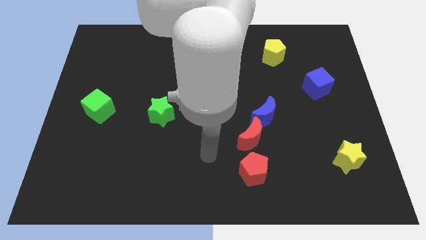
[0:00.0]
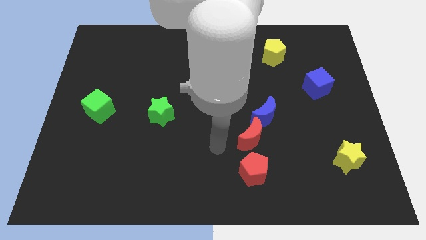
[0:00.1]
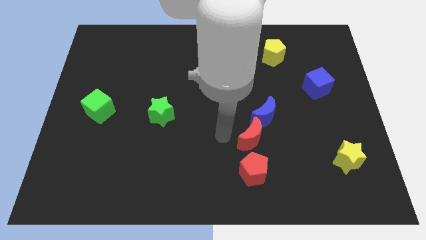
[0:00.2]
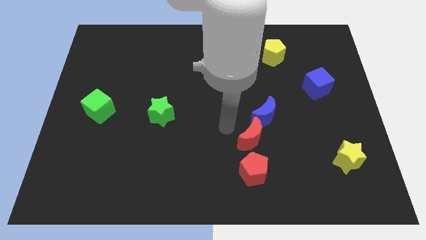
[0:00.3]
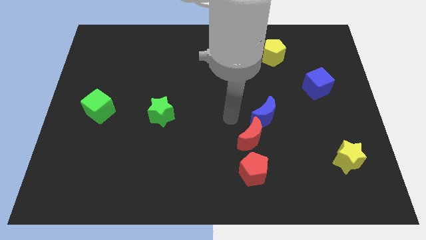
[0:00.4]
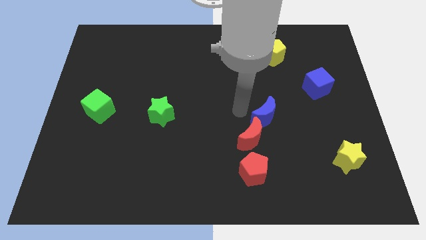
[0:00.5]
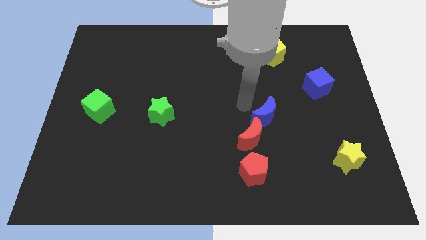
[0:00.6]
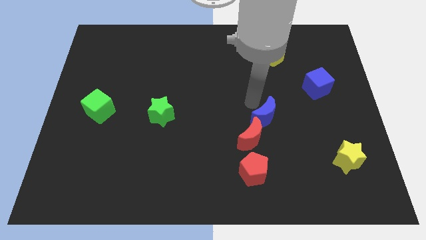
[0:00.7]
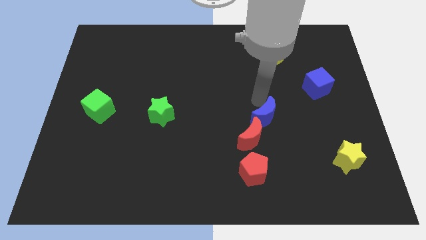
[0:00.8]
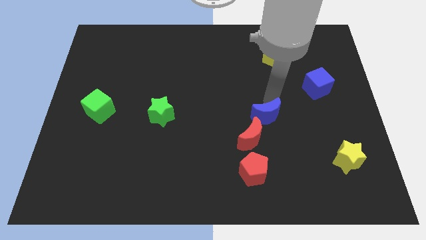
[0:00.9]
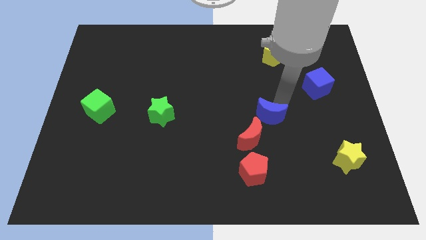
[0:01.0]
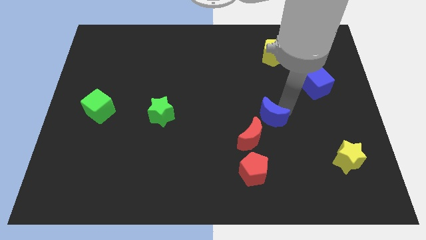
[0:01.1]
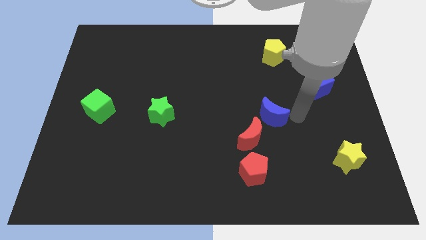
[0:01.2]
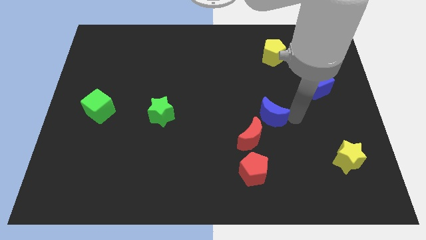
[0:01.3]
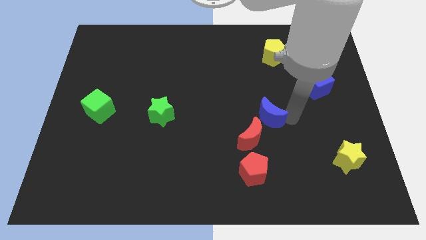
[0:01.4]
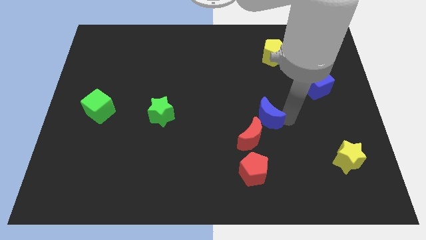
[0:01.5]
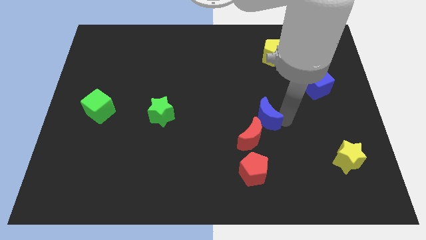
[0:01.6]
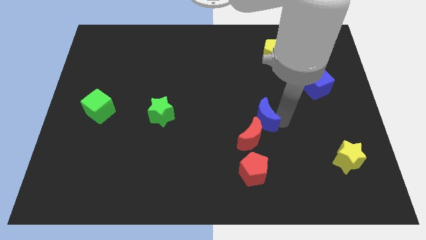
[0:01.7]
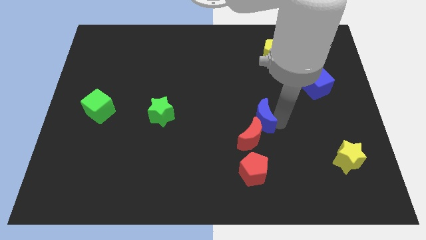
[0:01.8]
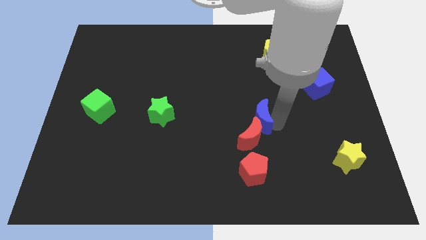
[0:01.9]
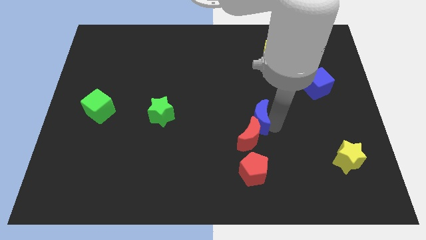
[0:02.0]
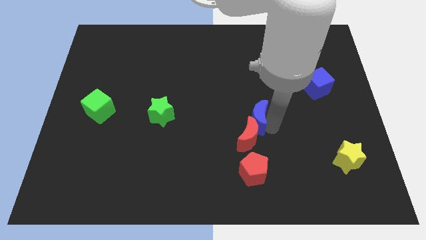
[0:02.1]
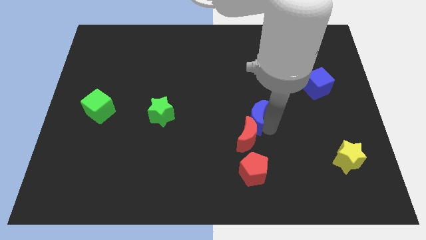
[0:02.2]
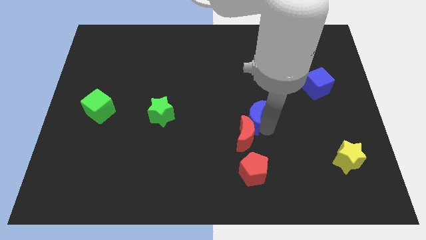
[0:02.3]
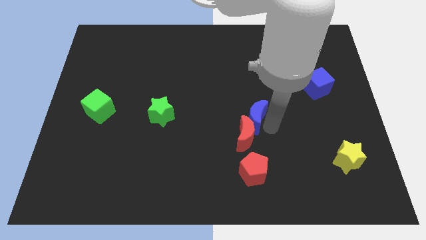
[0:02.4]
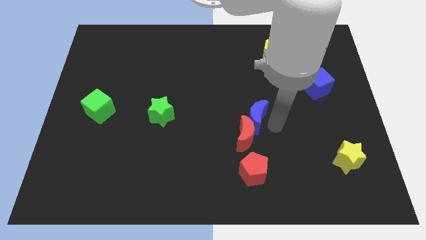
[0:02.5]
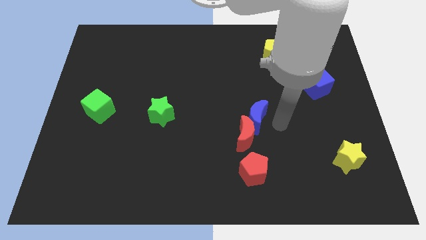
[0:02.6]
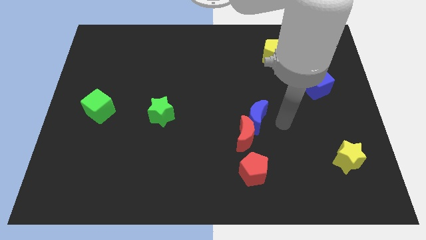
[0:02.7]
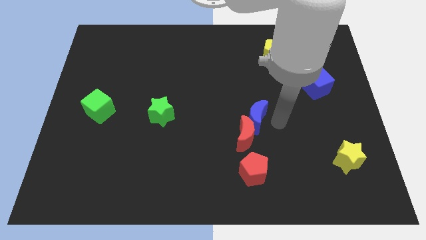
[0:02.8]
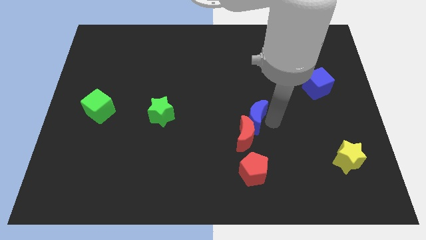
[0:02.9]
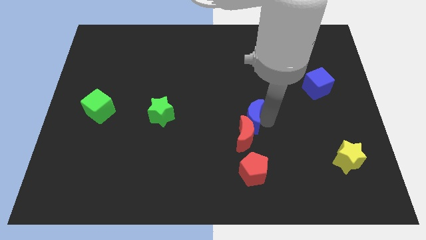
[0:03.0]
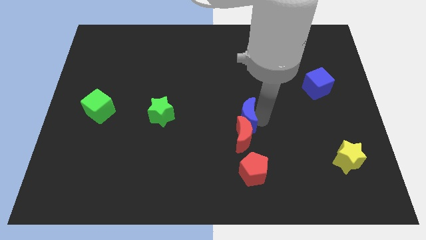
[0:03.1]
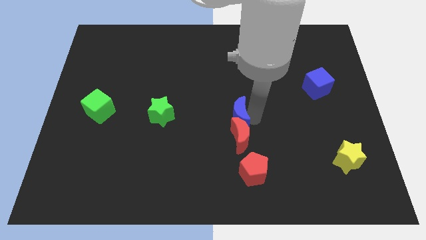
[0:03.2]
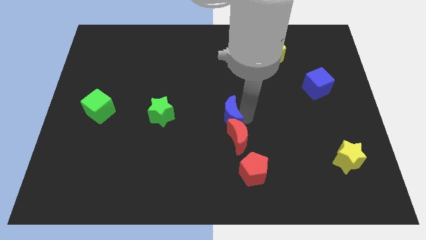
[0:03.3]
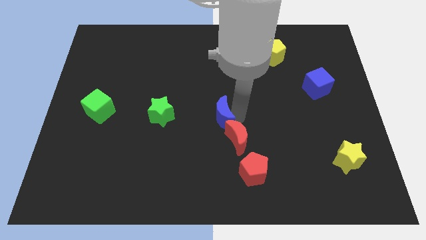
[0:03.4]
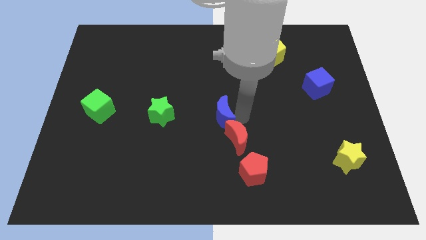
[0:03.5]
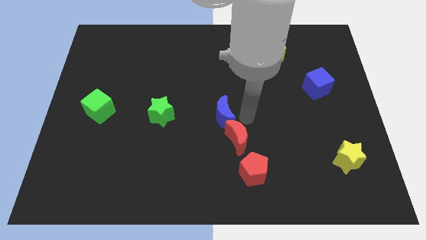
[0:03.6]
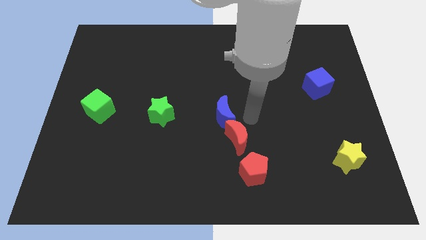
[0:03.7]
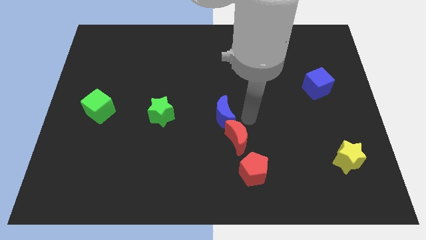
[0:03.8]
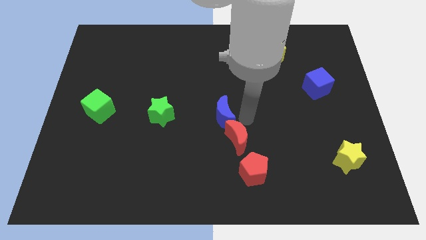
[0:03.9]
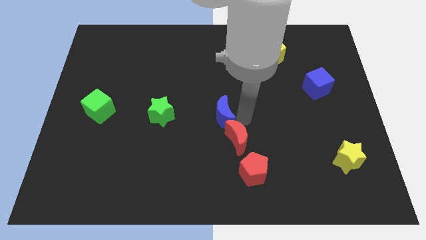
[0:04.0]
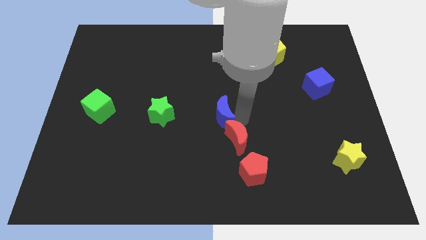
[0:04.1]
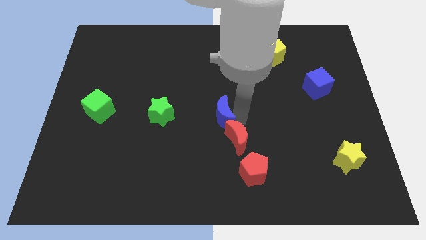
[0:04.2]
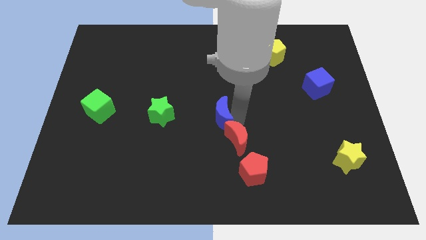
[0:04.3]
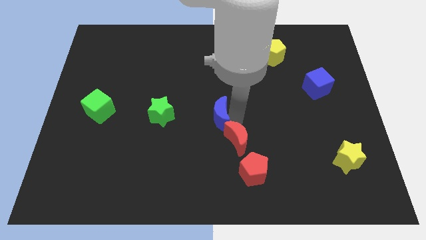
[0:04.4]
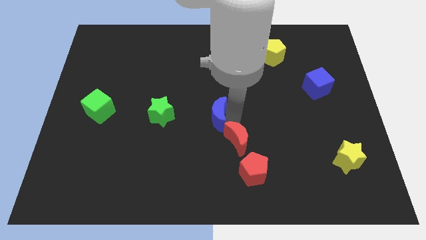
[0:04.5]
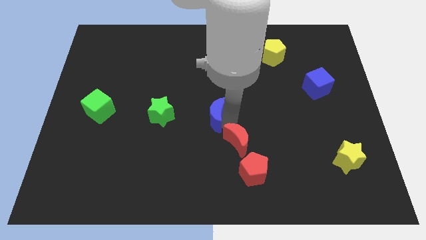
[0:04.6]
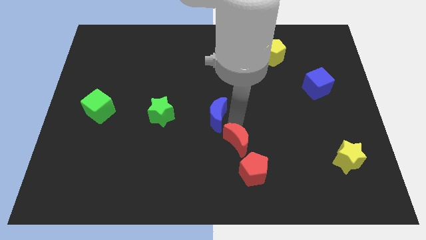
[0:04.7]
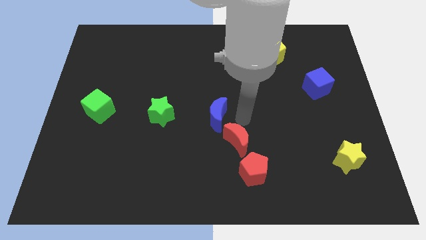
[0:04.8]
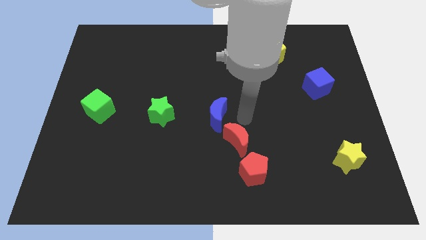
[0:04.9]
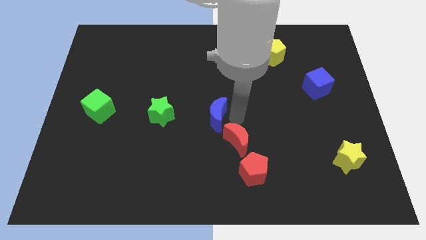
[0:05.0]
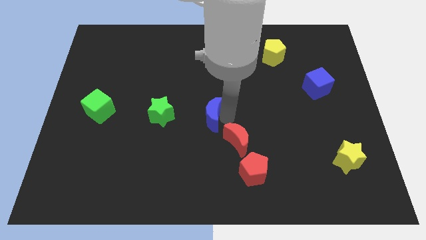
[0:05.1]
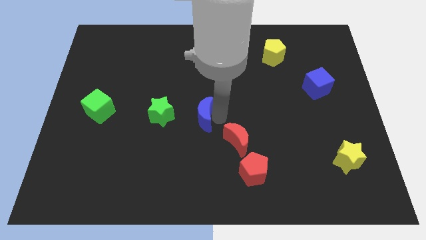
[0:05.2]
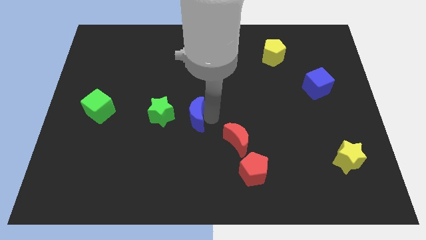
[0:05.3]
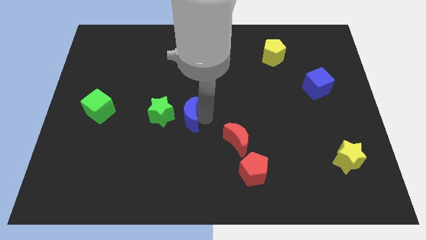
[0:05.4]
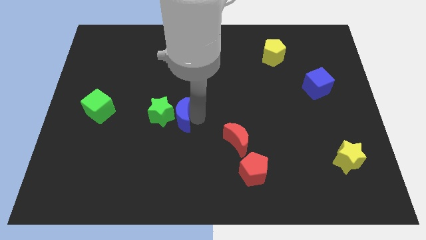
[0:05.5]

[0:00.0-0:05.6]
slide the blue moon towards the green star

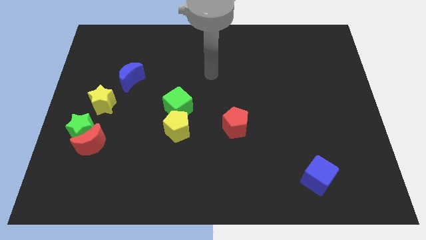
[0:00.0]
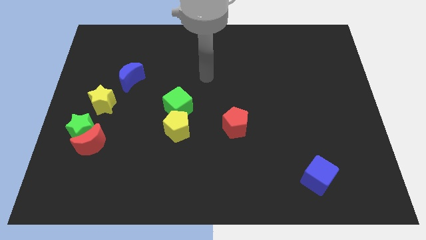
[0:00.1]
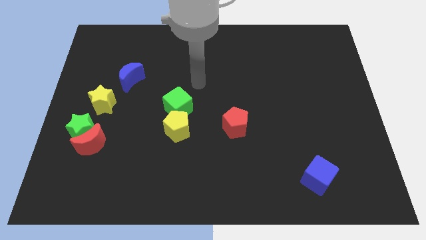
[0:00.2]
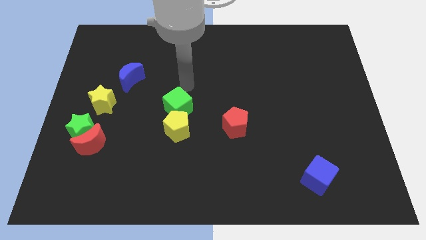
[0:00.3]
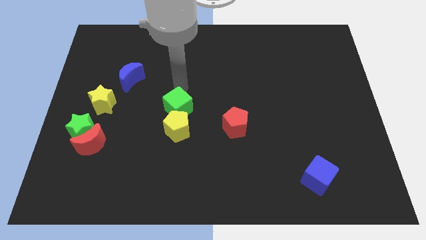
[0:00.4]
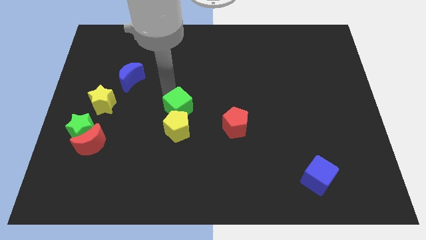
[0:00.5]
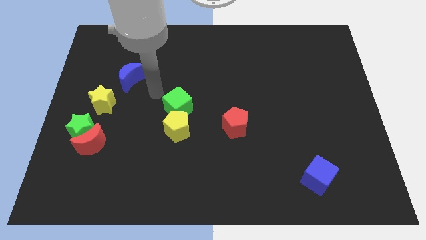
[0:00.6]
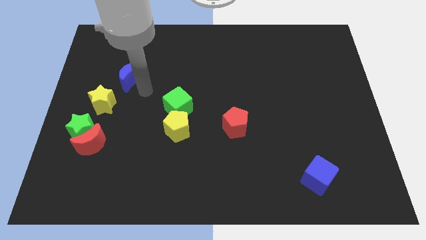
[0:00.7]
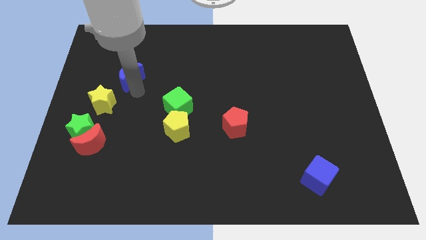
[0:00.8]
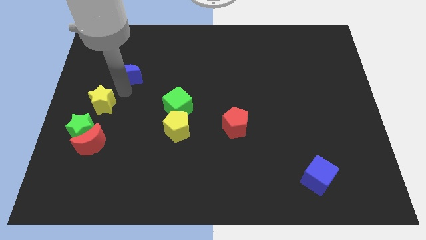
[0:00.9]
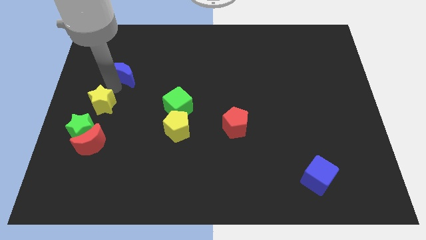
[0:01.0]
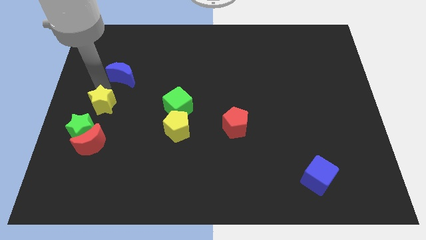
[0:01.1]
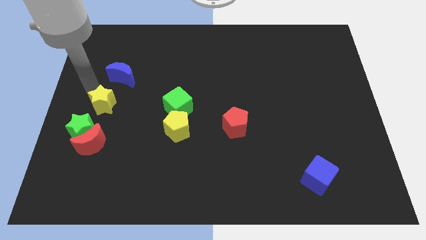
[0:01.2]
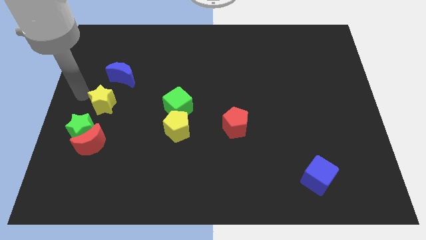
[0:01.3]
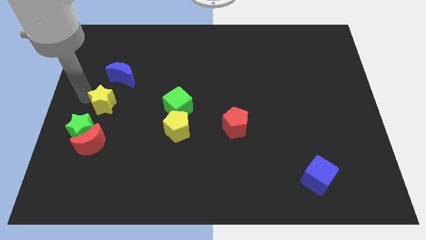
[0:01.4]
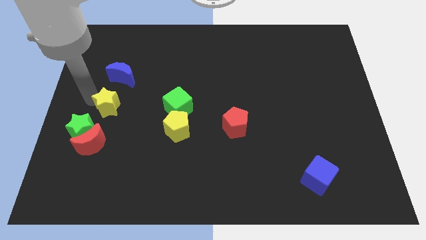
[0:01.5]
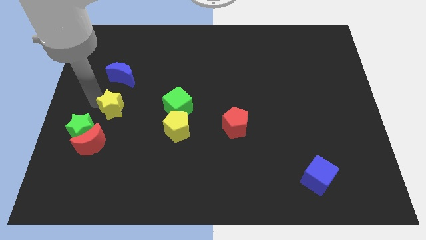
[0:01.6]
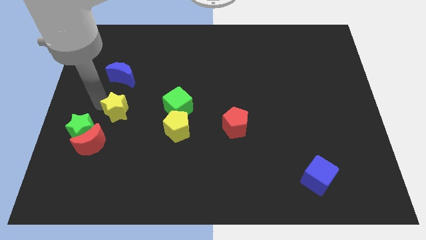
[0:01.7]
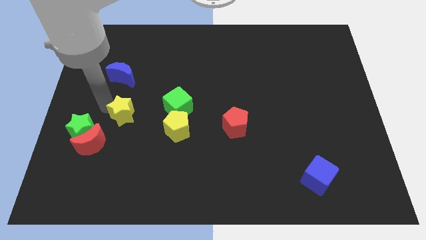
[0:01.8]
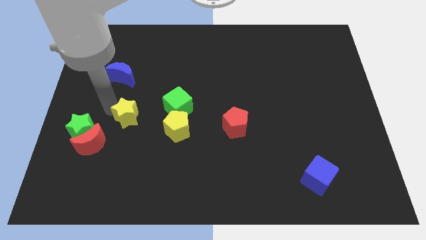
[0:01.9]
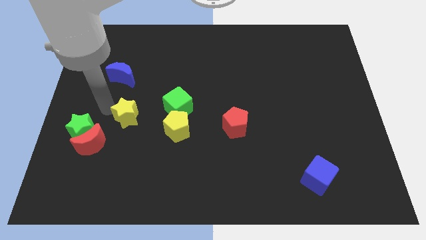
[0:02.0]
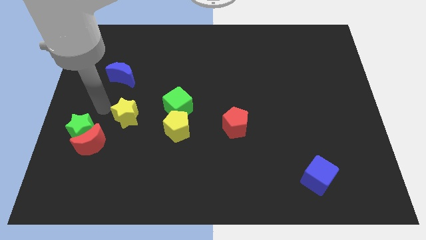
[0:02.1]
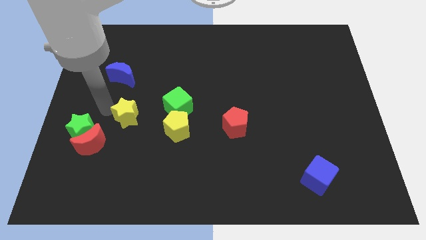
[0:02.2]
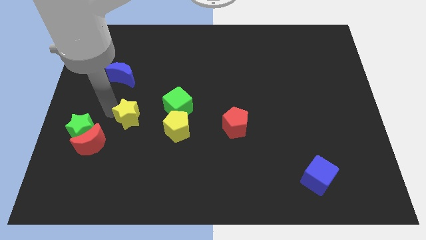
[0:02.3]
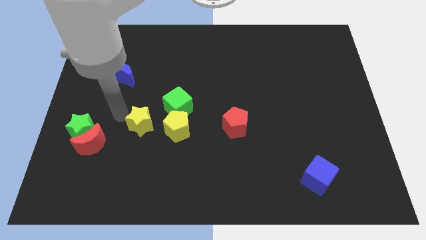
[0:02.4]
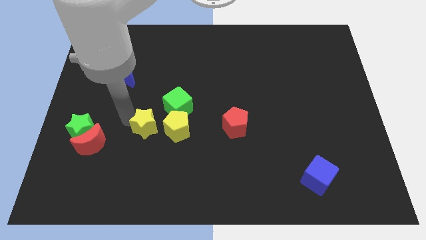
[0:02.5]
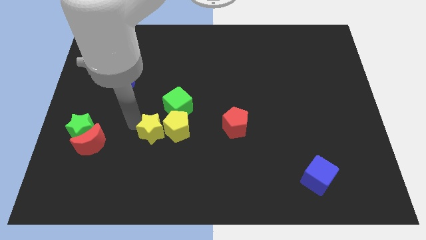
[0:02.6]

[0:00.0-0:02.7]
slide the yellow star to the yellow pentagon
